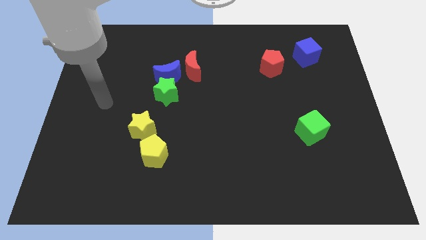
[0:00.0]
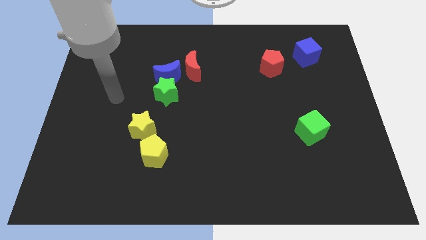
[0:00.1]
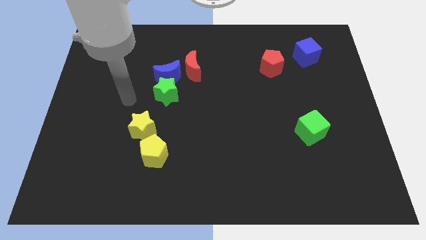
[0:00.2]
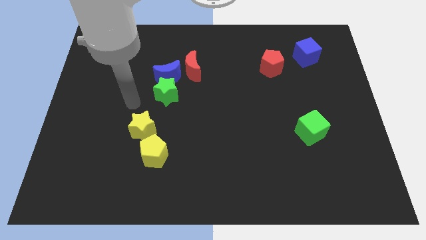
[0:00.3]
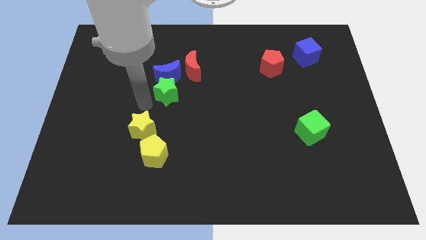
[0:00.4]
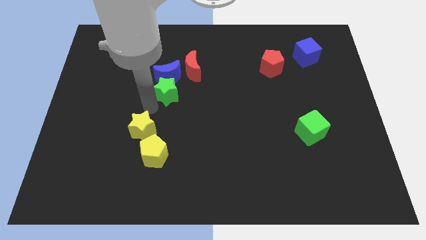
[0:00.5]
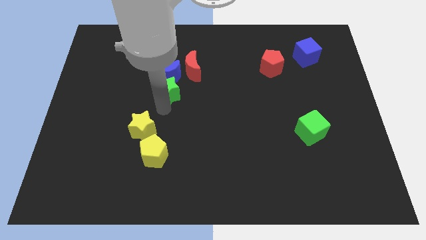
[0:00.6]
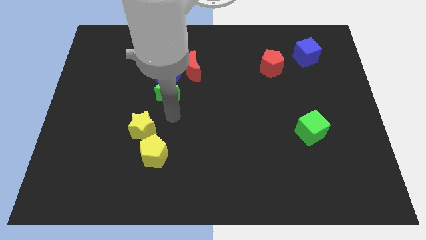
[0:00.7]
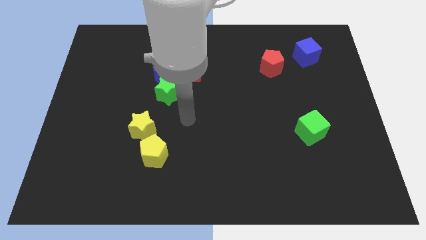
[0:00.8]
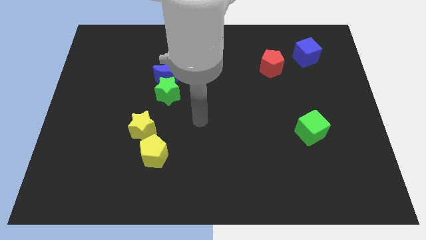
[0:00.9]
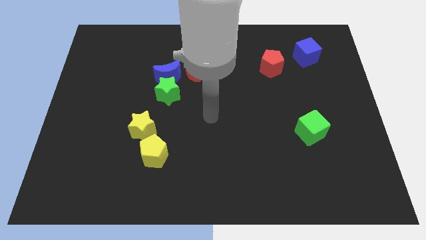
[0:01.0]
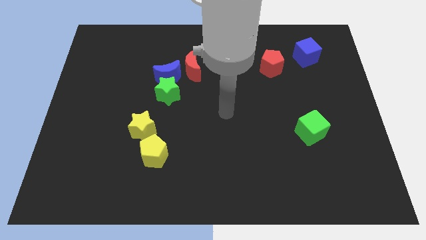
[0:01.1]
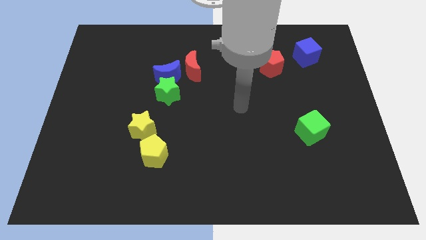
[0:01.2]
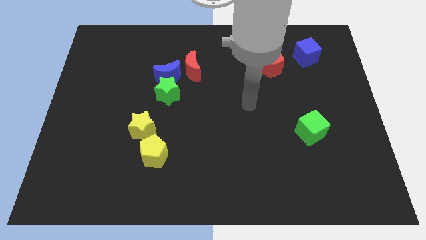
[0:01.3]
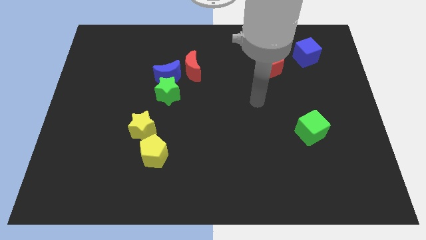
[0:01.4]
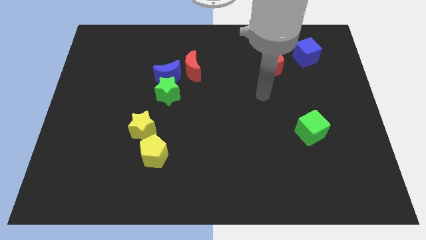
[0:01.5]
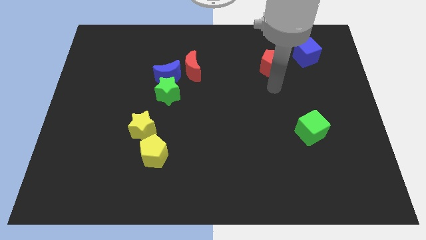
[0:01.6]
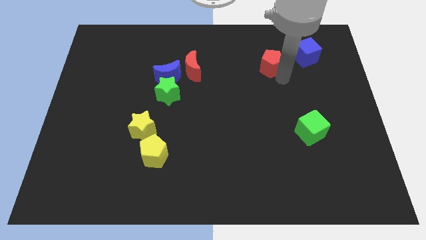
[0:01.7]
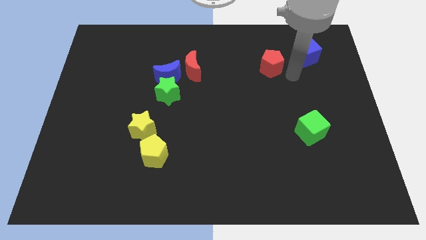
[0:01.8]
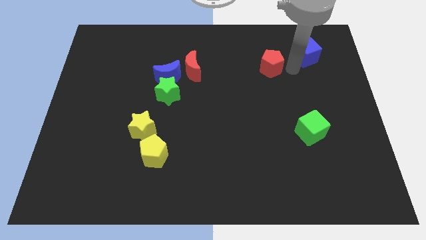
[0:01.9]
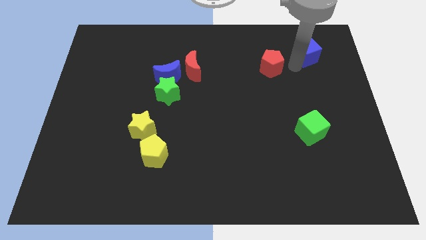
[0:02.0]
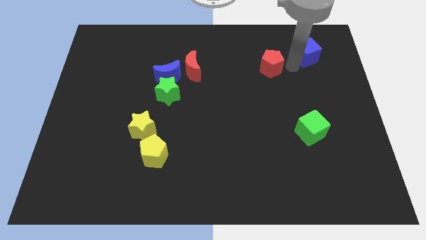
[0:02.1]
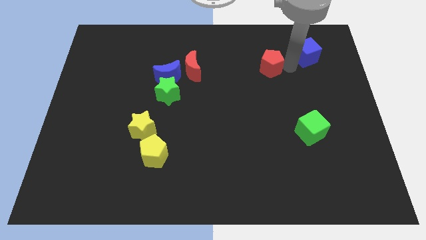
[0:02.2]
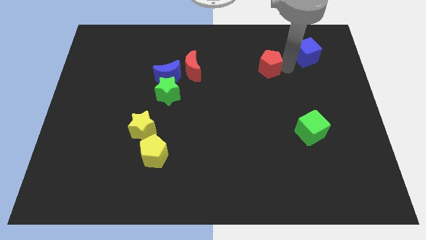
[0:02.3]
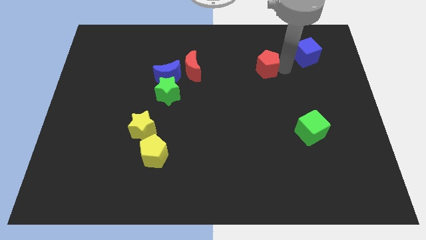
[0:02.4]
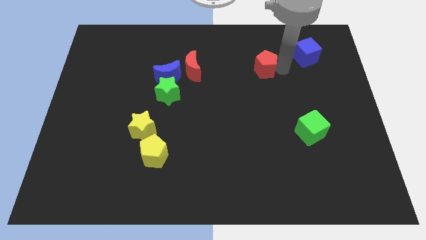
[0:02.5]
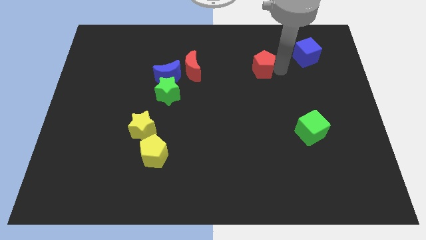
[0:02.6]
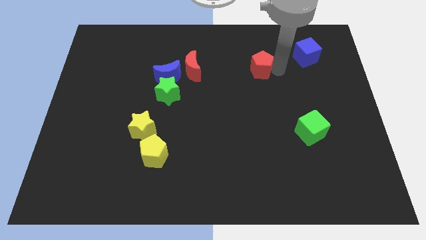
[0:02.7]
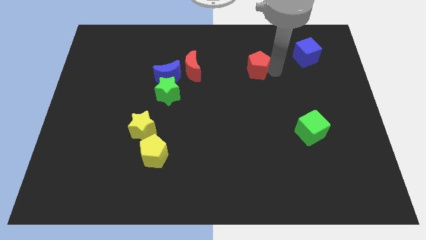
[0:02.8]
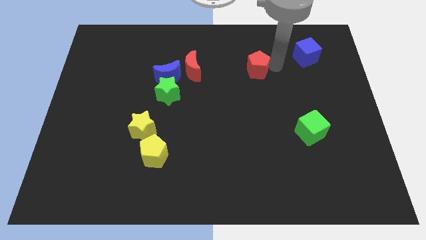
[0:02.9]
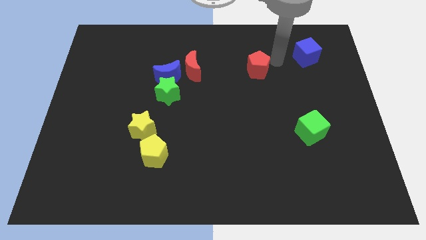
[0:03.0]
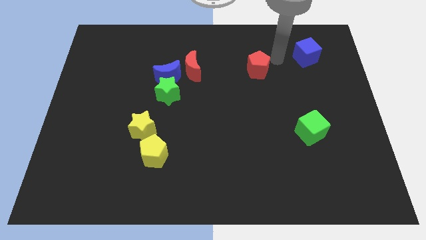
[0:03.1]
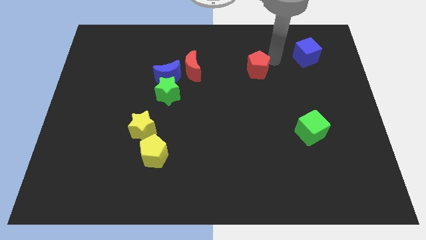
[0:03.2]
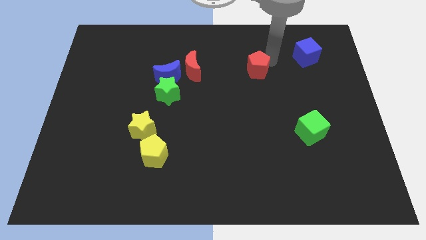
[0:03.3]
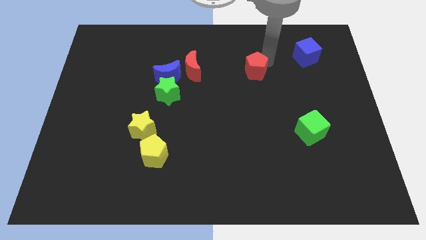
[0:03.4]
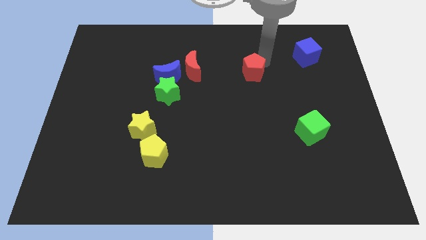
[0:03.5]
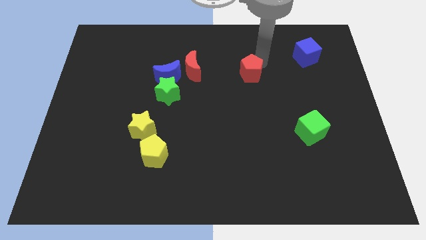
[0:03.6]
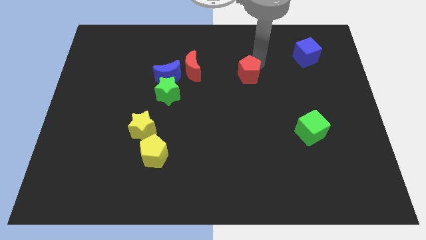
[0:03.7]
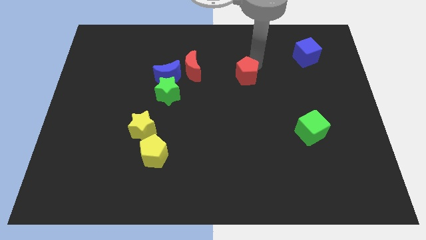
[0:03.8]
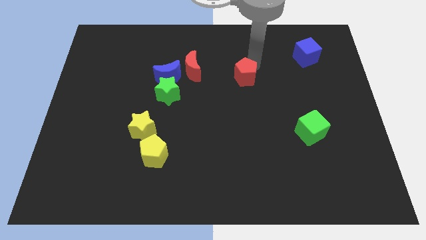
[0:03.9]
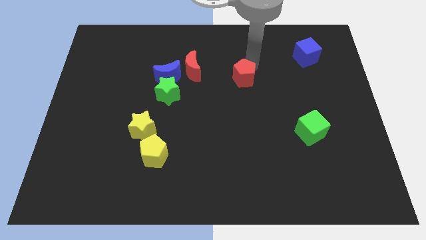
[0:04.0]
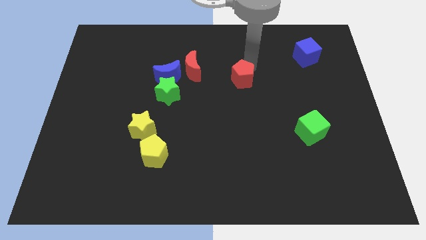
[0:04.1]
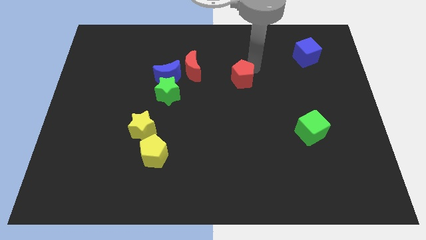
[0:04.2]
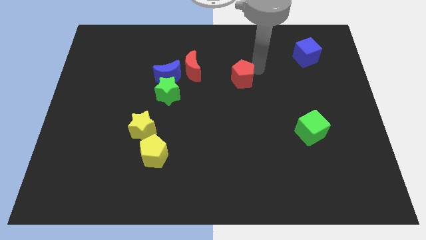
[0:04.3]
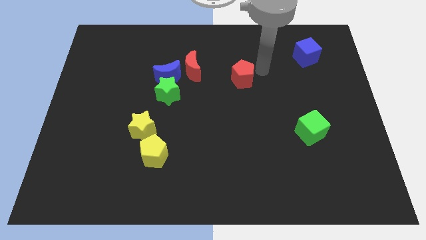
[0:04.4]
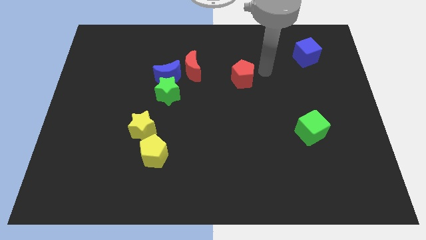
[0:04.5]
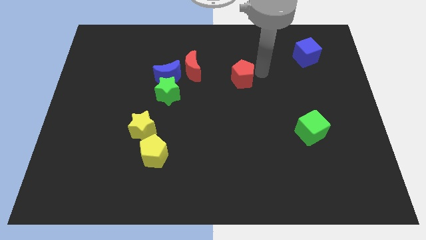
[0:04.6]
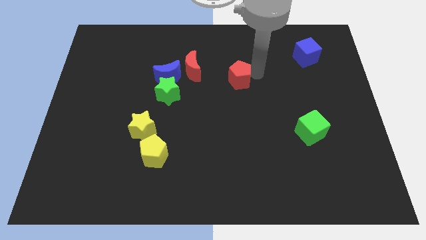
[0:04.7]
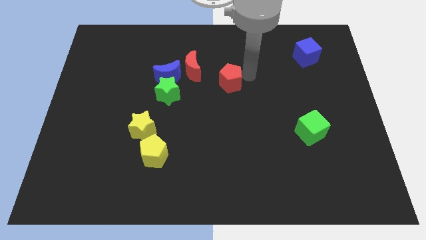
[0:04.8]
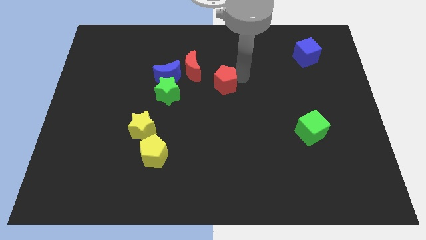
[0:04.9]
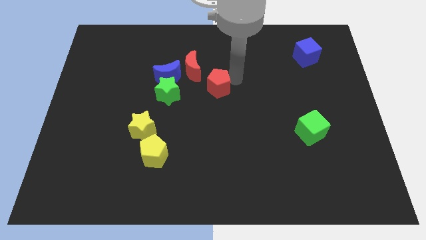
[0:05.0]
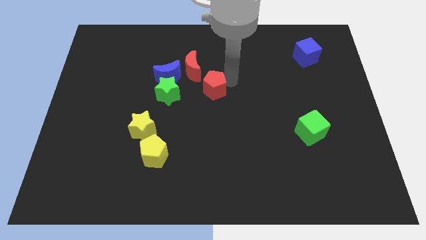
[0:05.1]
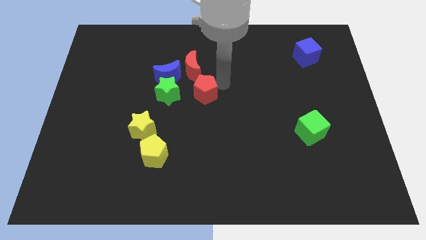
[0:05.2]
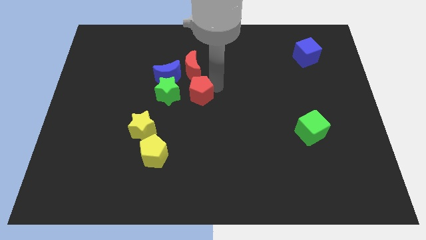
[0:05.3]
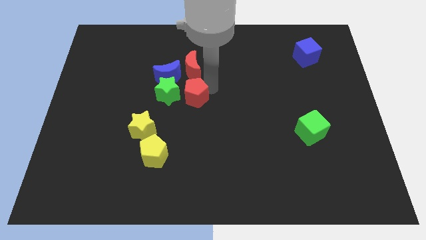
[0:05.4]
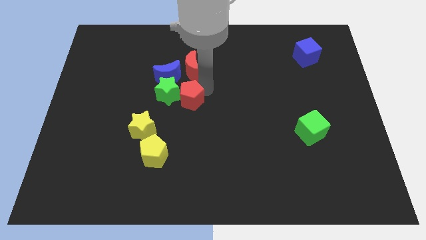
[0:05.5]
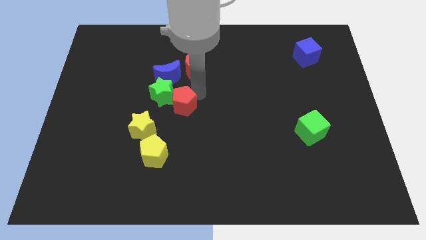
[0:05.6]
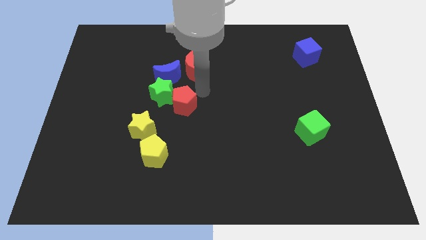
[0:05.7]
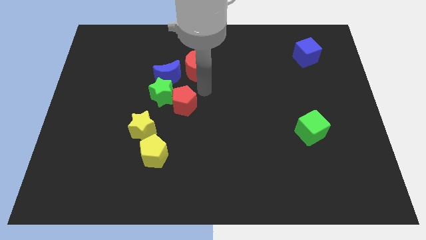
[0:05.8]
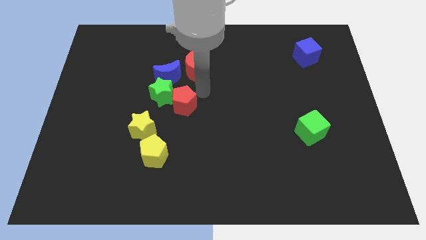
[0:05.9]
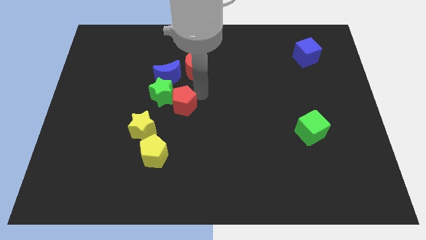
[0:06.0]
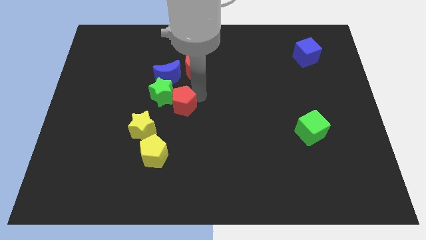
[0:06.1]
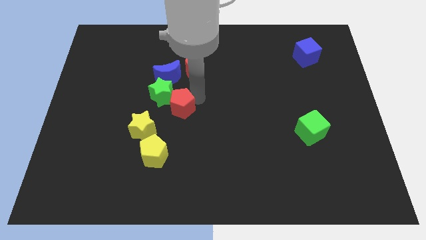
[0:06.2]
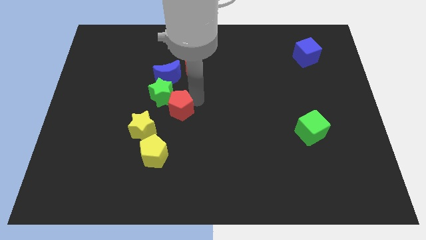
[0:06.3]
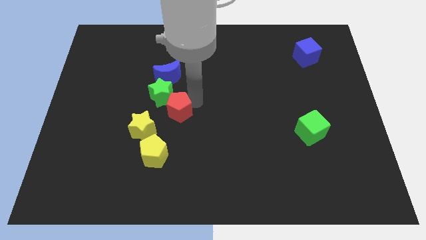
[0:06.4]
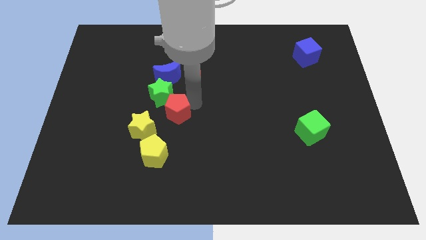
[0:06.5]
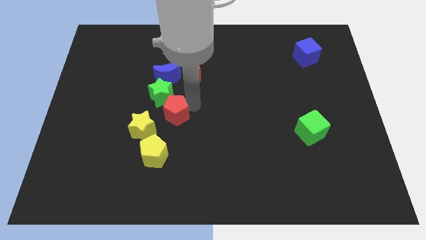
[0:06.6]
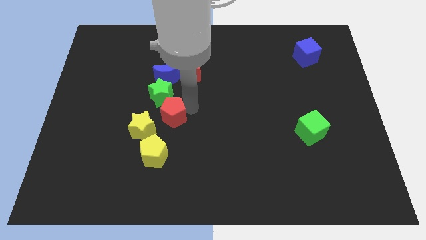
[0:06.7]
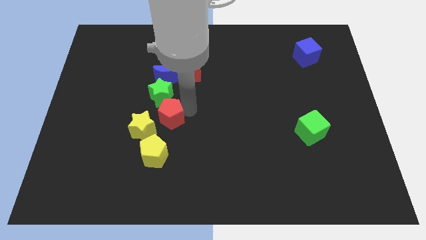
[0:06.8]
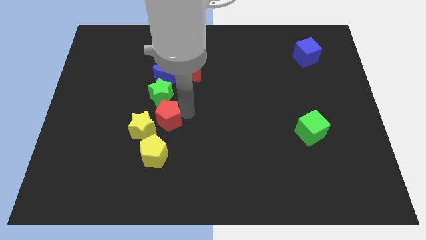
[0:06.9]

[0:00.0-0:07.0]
slide the red pentagon next to the yellow star

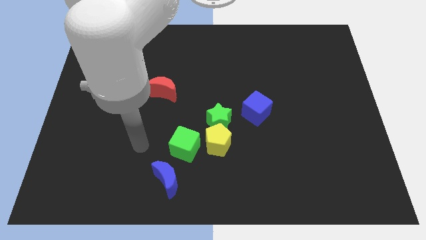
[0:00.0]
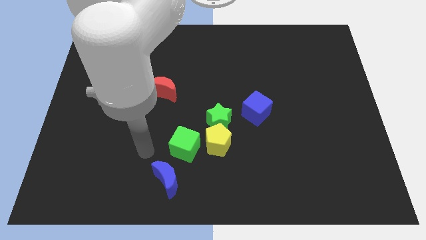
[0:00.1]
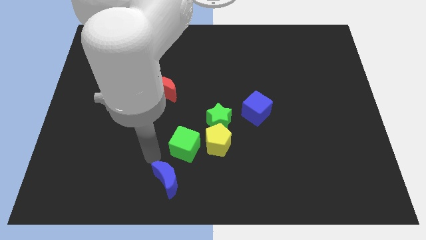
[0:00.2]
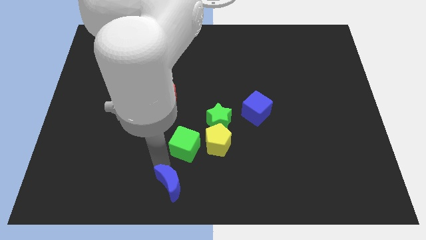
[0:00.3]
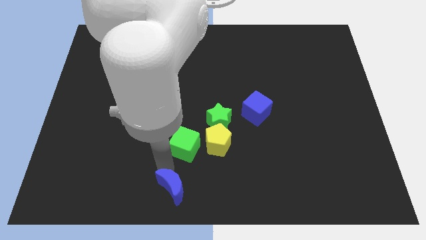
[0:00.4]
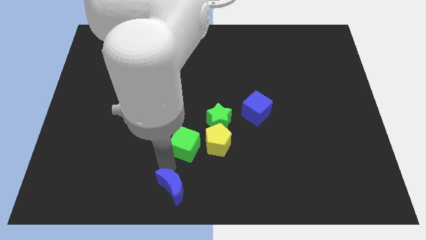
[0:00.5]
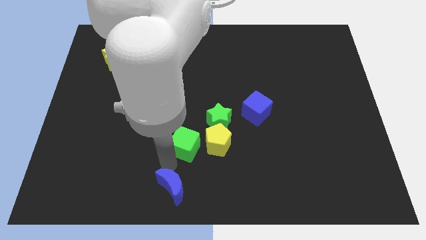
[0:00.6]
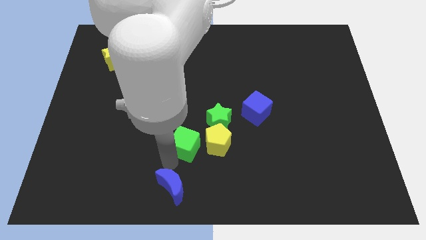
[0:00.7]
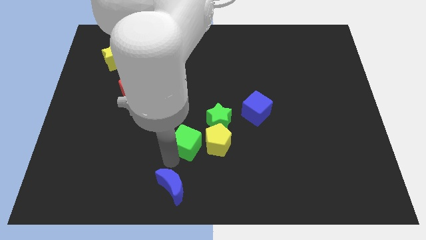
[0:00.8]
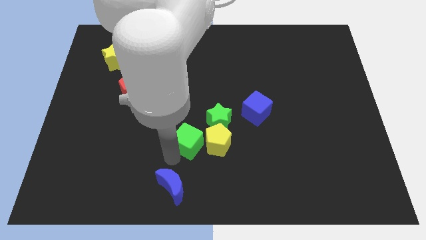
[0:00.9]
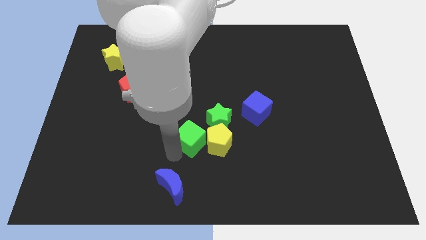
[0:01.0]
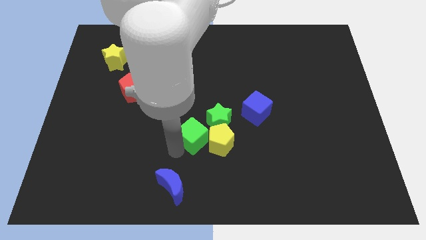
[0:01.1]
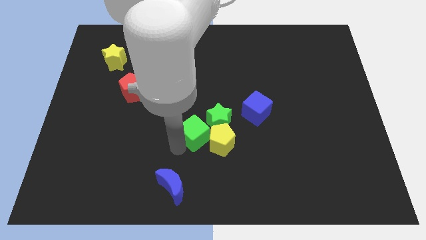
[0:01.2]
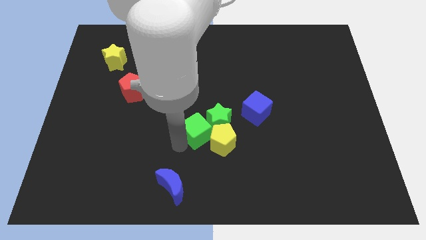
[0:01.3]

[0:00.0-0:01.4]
slide the green cube next to the green star
